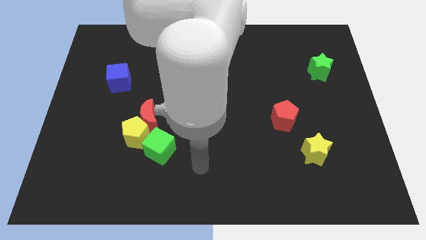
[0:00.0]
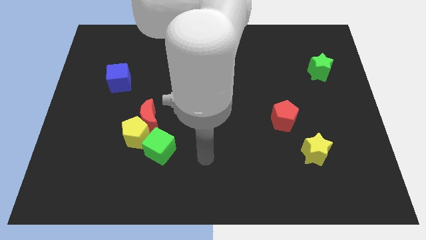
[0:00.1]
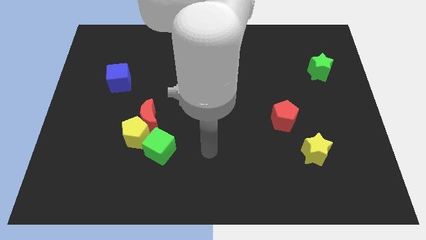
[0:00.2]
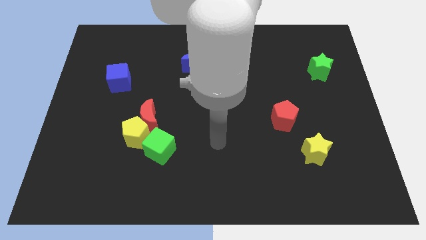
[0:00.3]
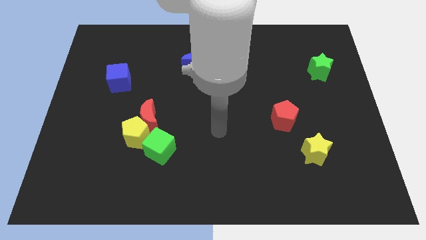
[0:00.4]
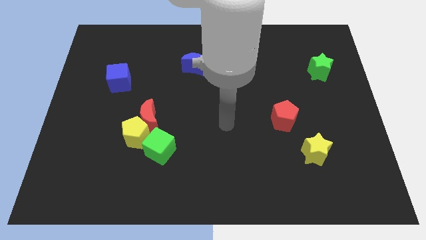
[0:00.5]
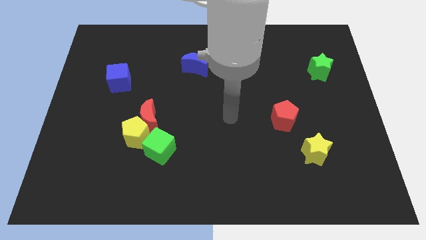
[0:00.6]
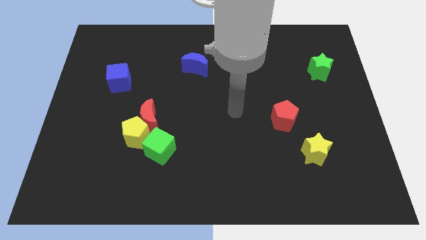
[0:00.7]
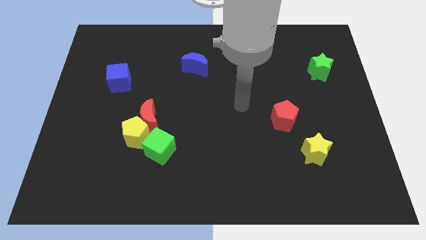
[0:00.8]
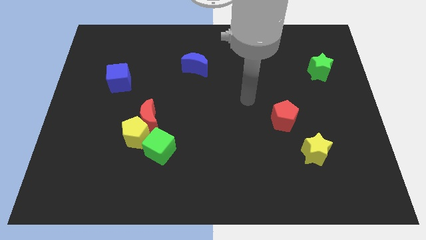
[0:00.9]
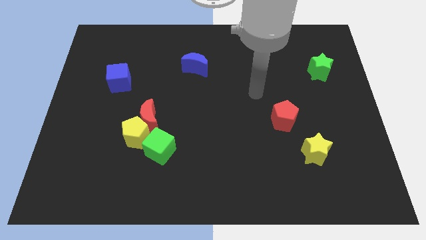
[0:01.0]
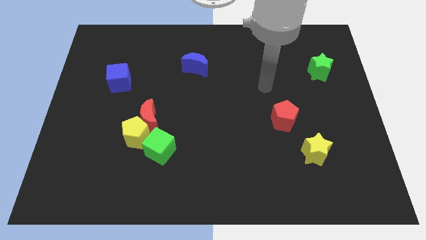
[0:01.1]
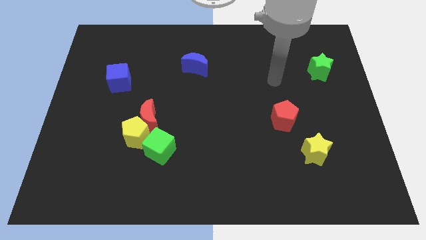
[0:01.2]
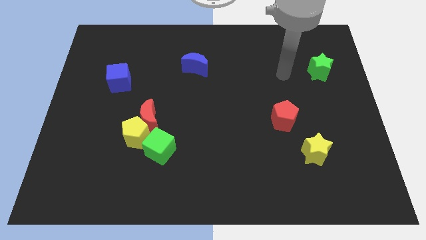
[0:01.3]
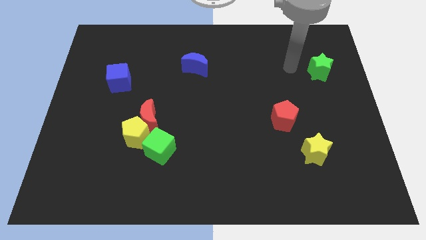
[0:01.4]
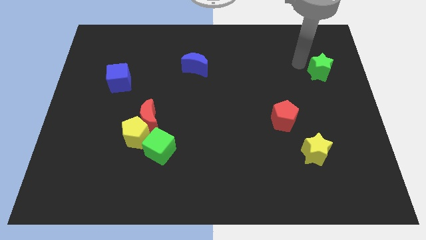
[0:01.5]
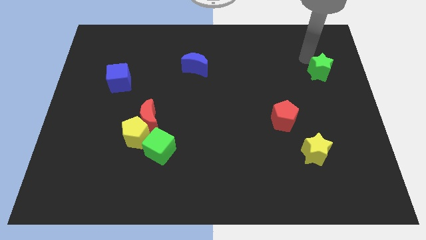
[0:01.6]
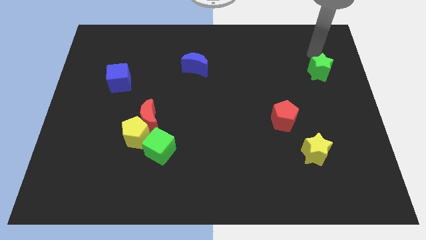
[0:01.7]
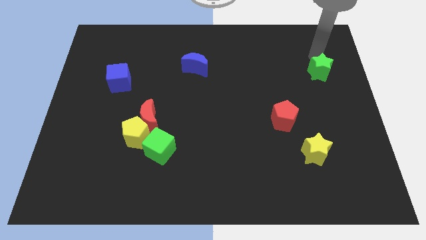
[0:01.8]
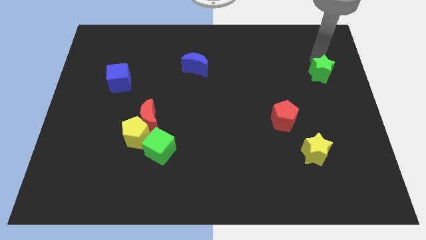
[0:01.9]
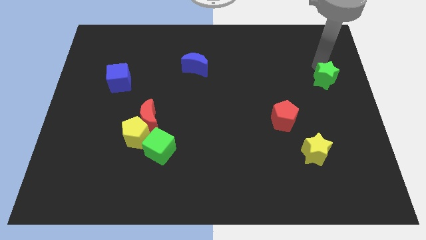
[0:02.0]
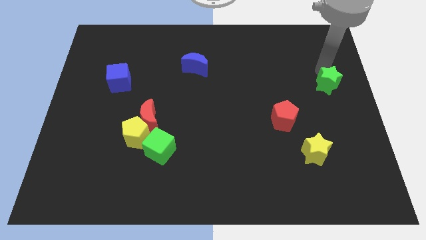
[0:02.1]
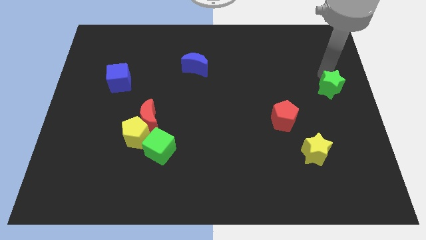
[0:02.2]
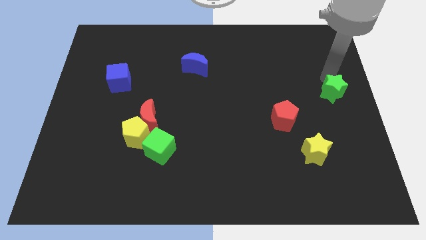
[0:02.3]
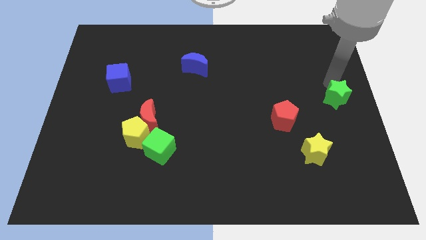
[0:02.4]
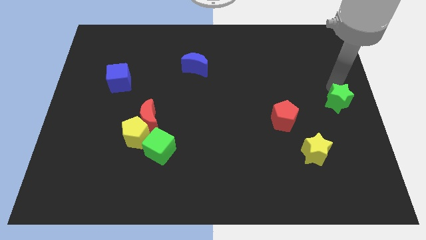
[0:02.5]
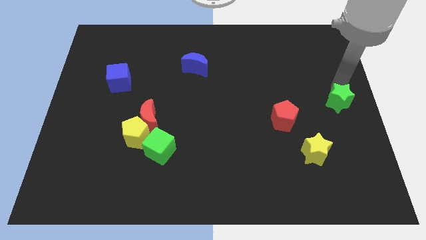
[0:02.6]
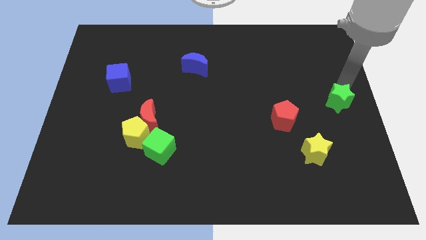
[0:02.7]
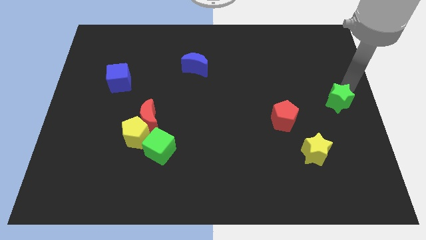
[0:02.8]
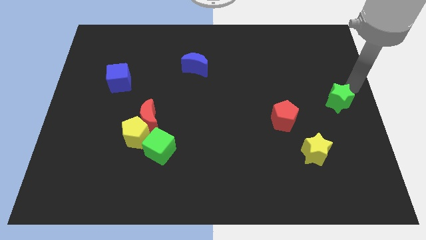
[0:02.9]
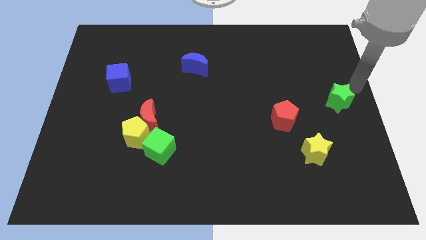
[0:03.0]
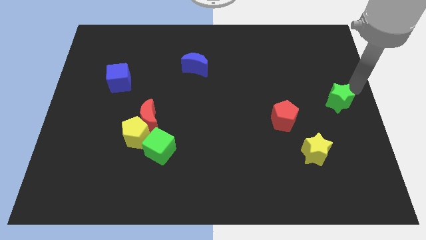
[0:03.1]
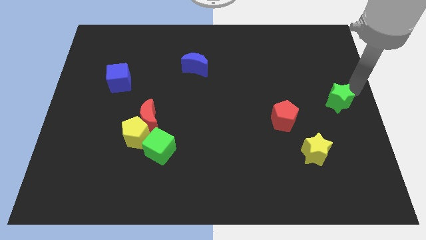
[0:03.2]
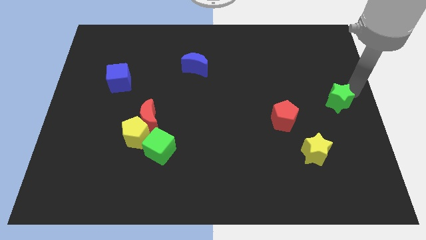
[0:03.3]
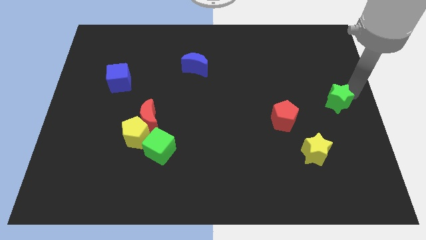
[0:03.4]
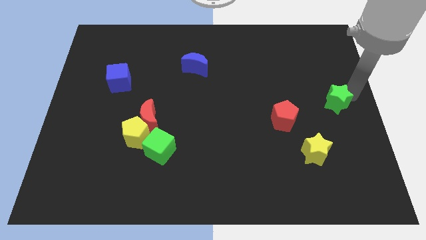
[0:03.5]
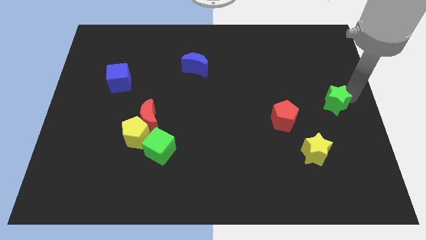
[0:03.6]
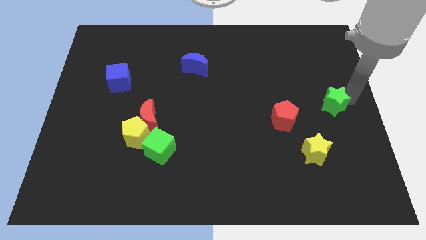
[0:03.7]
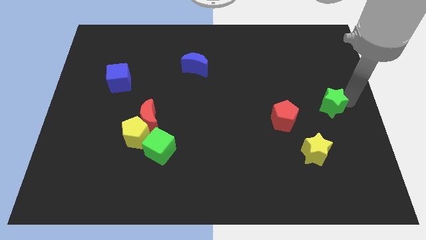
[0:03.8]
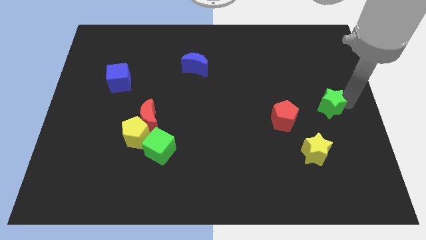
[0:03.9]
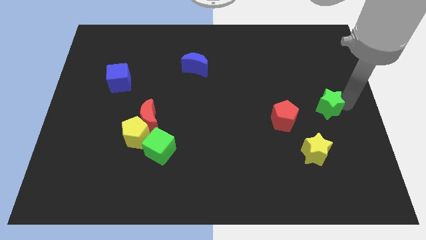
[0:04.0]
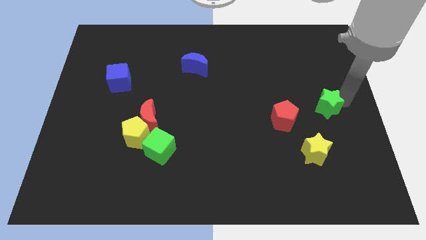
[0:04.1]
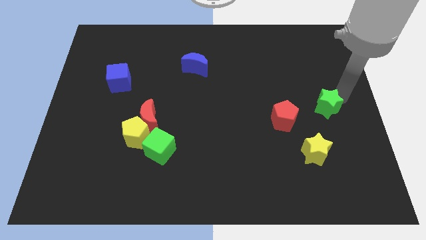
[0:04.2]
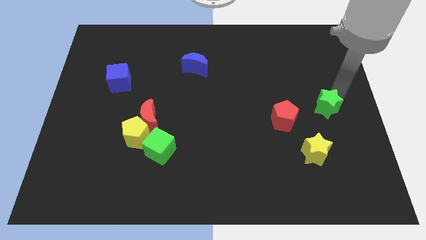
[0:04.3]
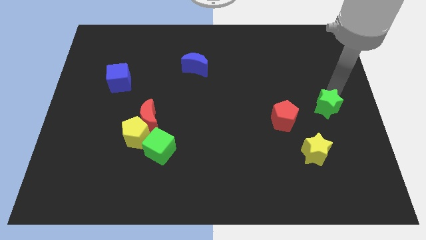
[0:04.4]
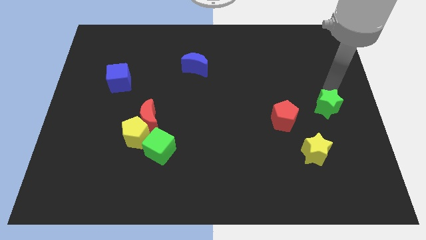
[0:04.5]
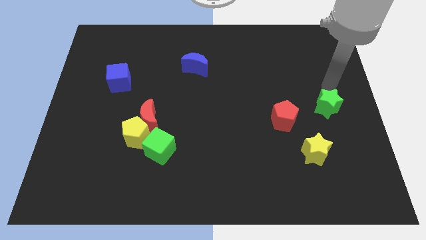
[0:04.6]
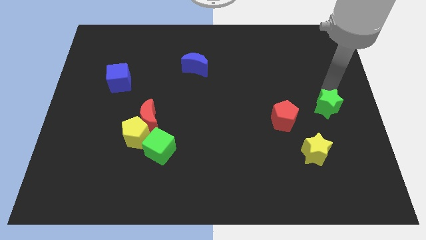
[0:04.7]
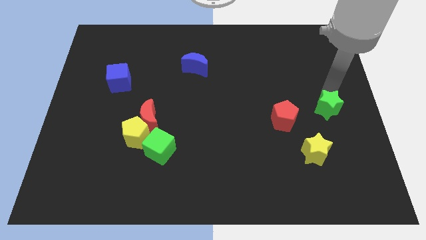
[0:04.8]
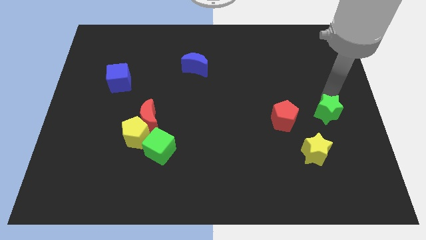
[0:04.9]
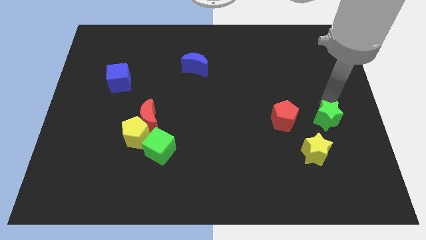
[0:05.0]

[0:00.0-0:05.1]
push the green star diagonally up and to the right of the yellow star

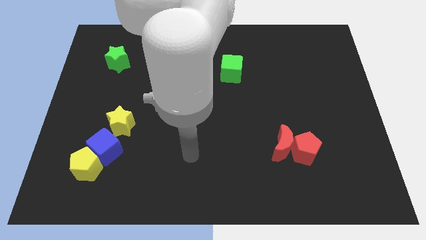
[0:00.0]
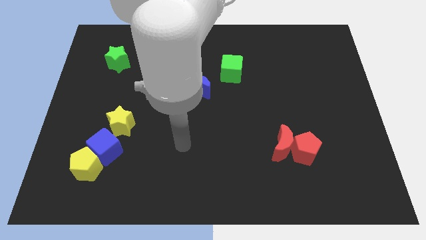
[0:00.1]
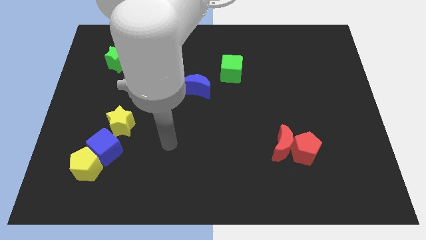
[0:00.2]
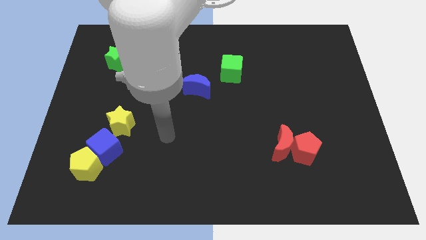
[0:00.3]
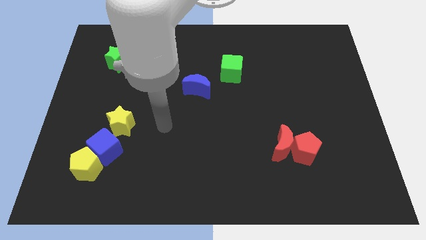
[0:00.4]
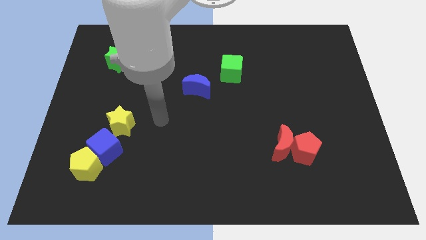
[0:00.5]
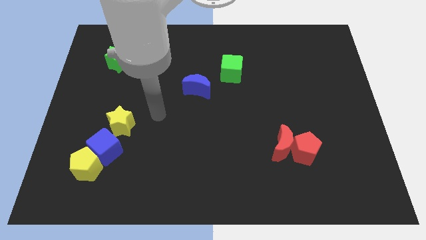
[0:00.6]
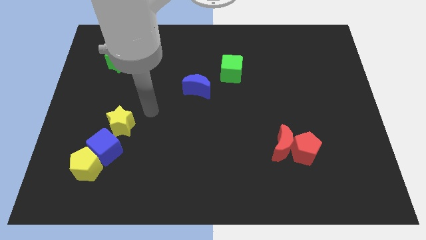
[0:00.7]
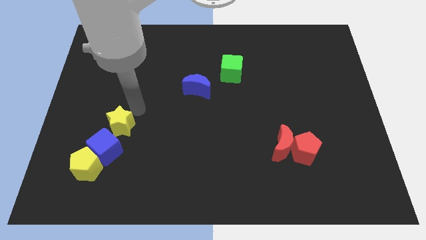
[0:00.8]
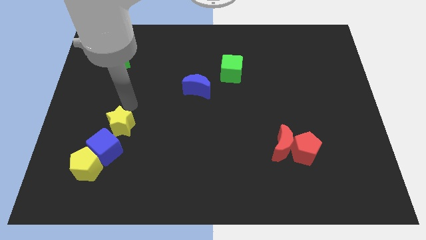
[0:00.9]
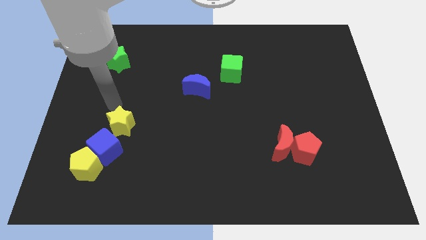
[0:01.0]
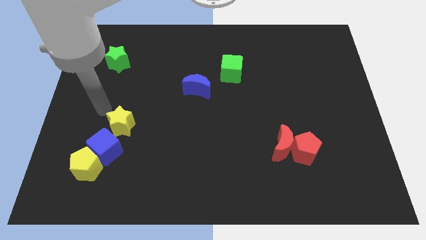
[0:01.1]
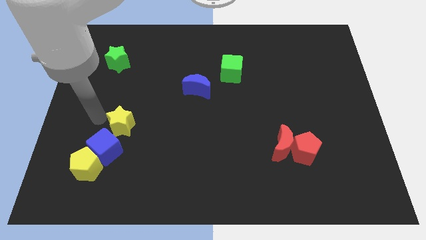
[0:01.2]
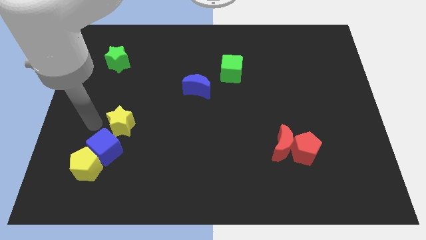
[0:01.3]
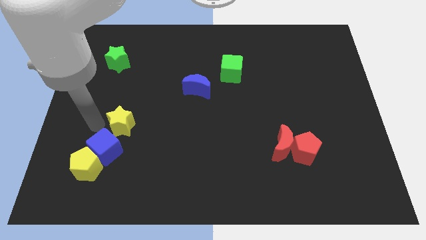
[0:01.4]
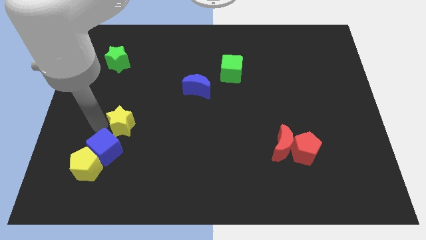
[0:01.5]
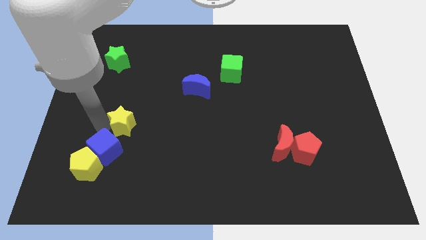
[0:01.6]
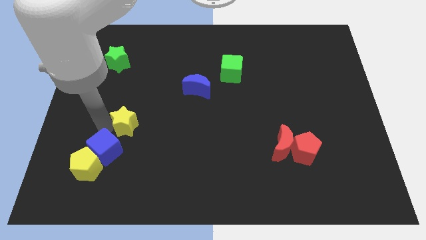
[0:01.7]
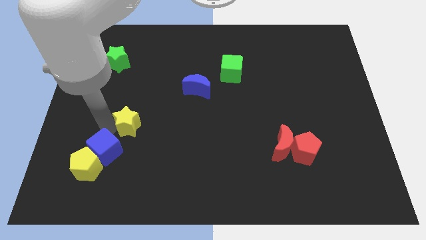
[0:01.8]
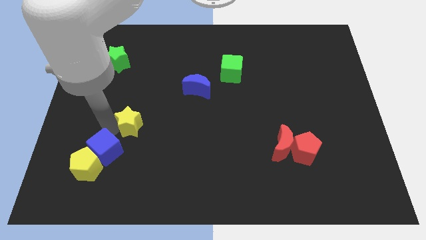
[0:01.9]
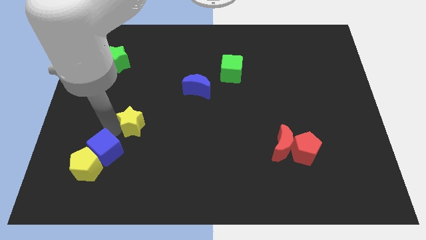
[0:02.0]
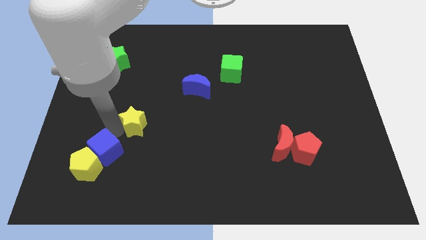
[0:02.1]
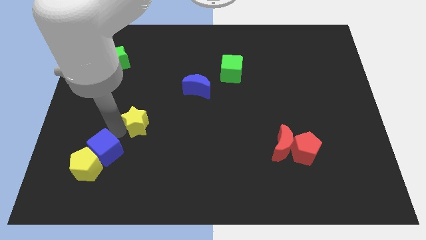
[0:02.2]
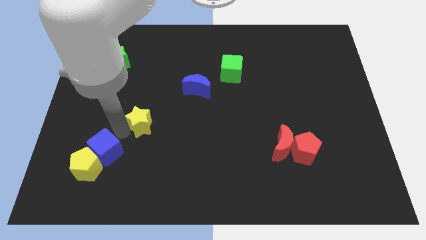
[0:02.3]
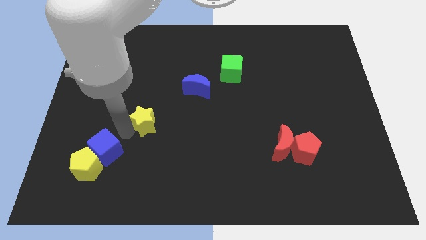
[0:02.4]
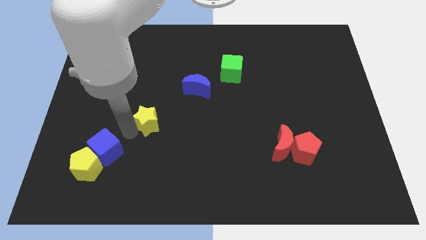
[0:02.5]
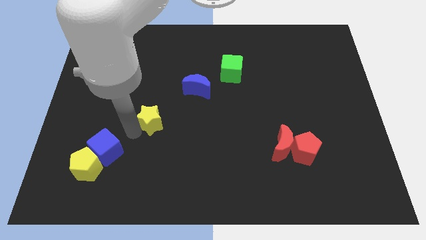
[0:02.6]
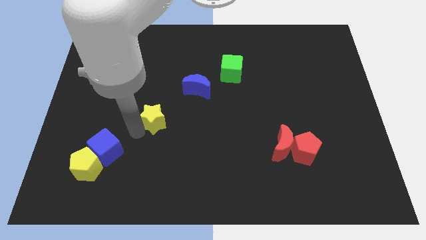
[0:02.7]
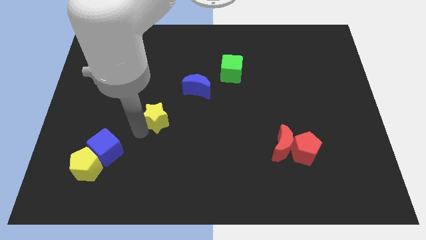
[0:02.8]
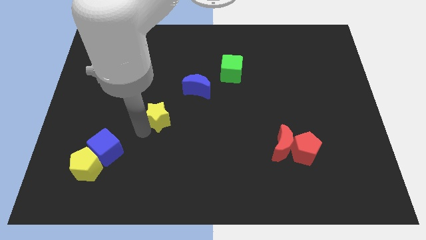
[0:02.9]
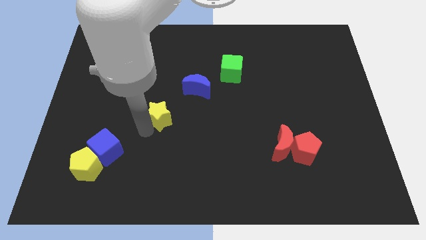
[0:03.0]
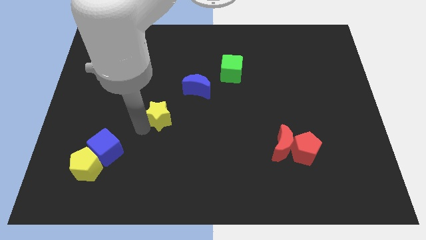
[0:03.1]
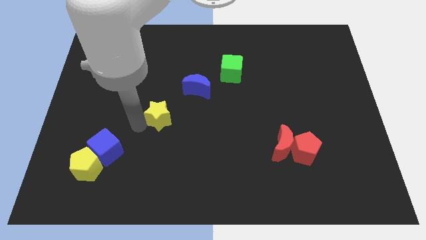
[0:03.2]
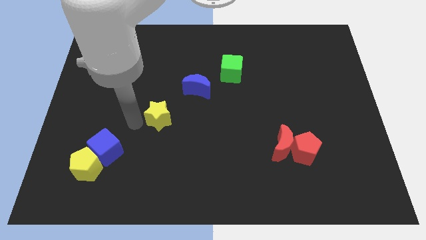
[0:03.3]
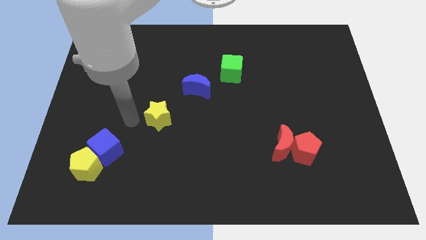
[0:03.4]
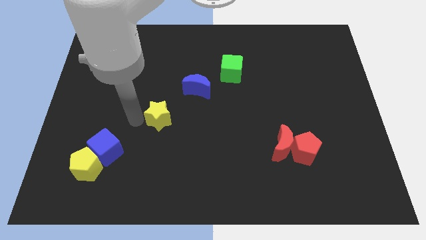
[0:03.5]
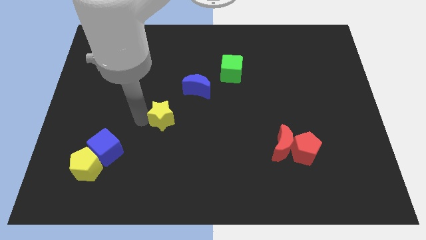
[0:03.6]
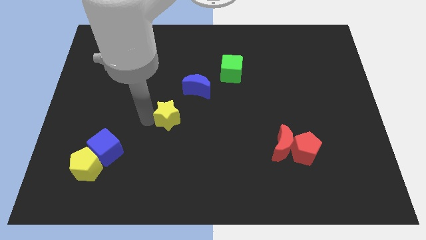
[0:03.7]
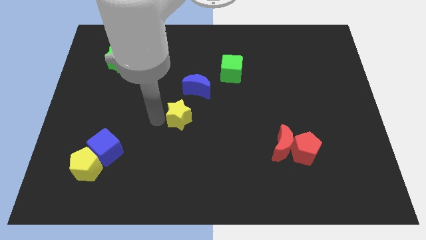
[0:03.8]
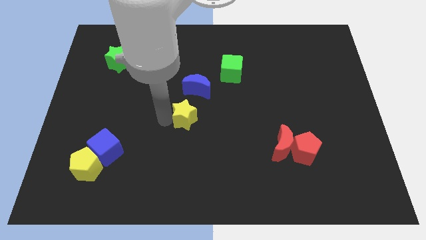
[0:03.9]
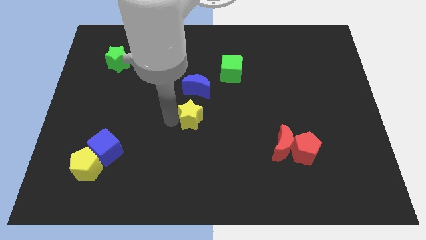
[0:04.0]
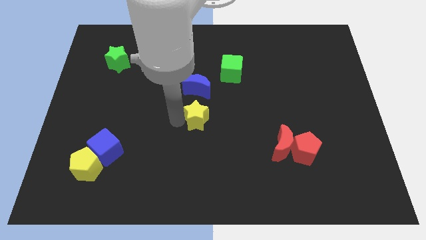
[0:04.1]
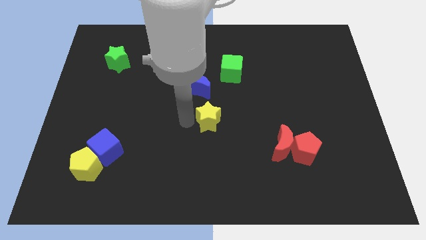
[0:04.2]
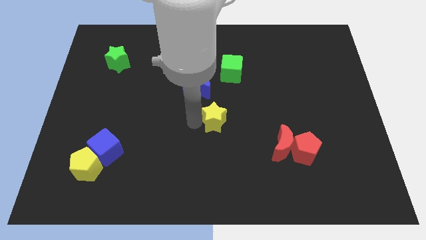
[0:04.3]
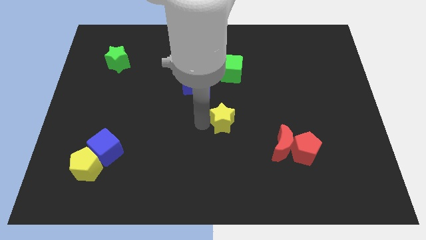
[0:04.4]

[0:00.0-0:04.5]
move the yellow star to the bottom side of the green cube
